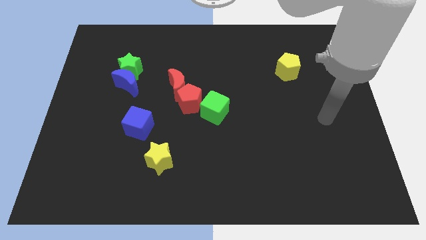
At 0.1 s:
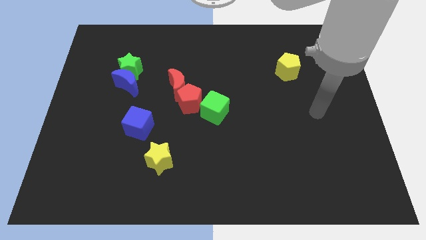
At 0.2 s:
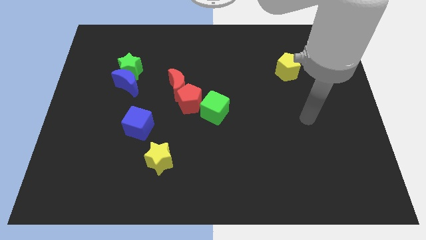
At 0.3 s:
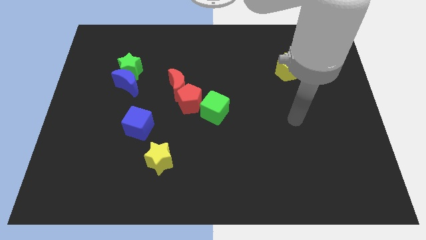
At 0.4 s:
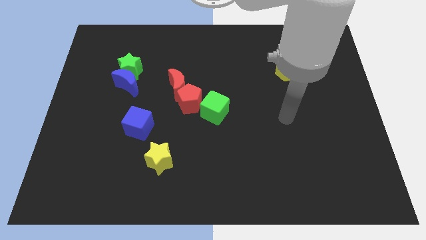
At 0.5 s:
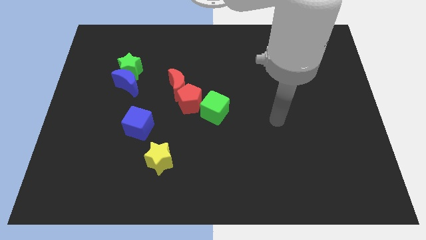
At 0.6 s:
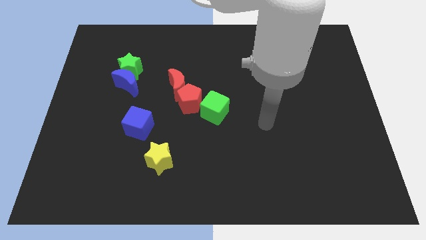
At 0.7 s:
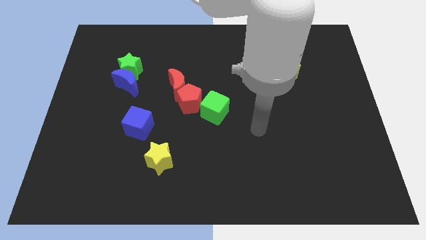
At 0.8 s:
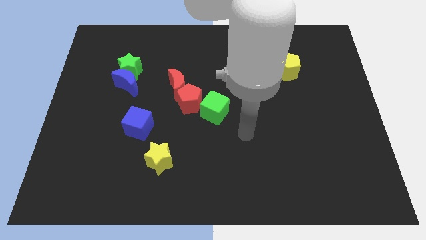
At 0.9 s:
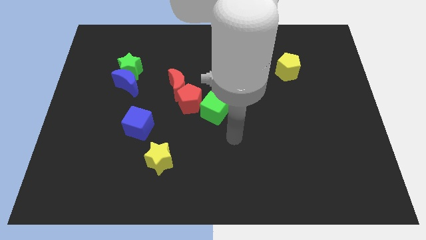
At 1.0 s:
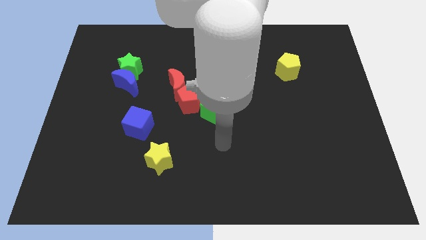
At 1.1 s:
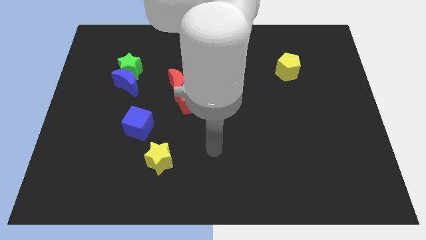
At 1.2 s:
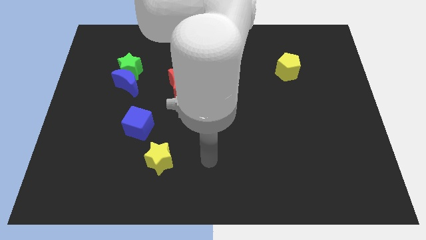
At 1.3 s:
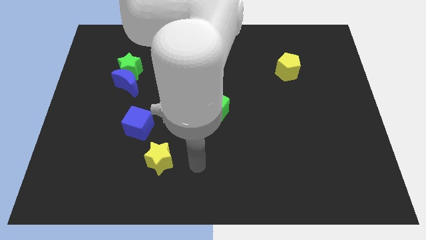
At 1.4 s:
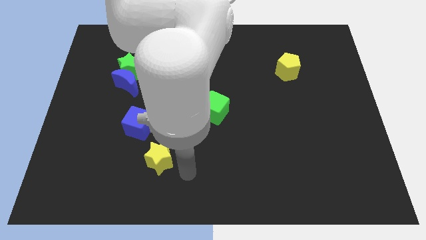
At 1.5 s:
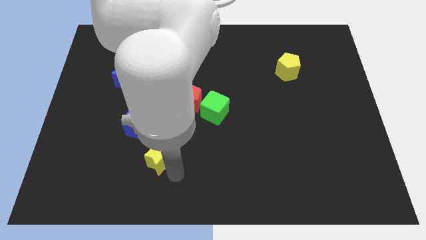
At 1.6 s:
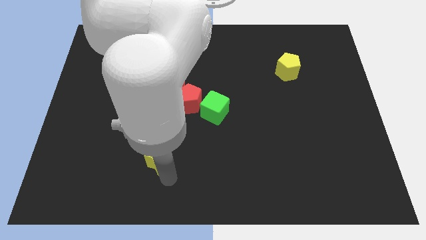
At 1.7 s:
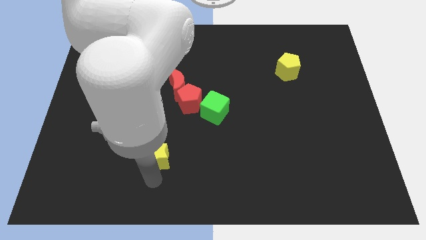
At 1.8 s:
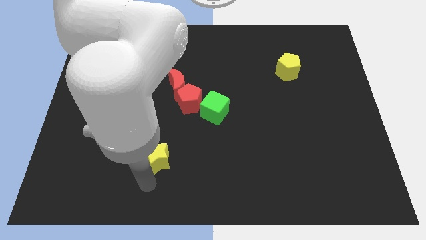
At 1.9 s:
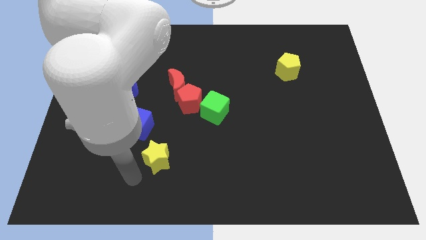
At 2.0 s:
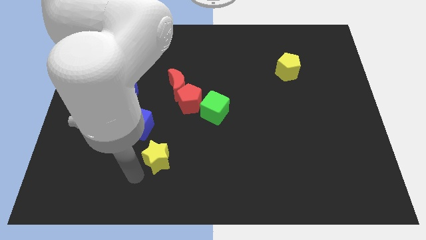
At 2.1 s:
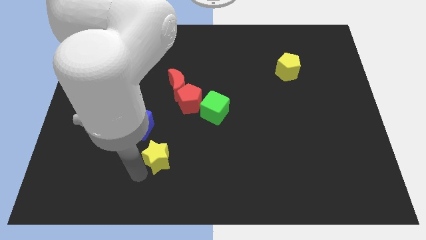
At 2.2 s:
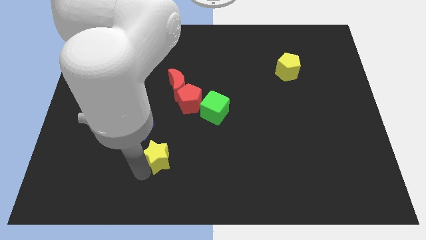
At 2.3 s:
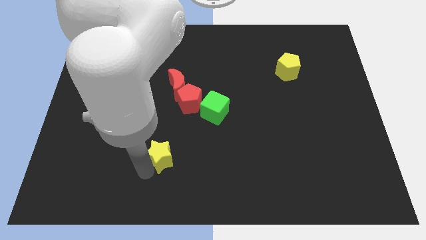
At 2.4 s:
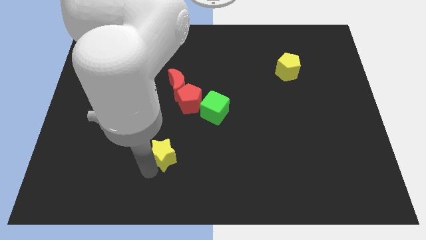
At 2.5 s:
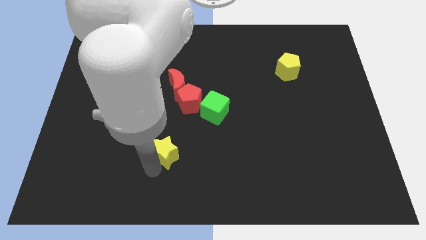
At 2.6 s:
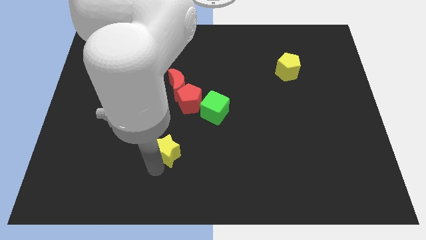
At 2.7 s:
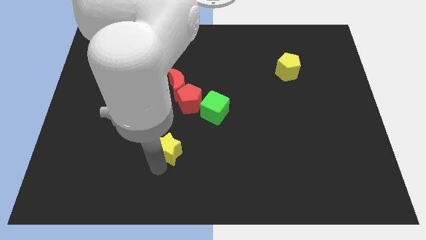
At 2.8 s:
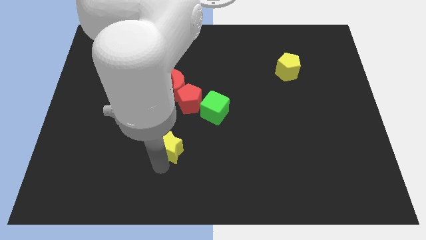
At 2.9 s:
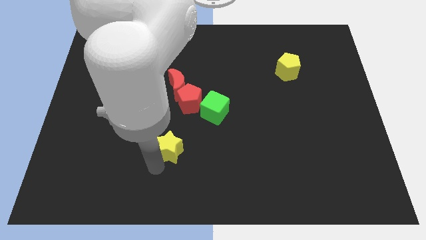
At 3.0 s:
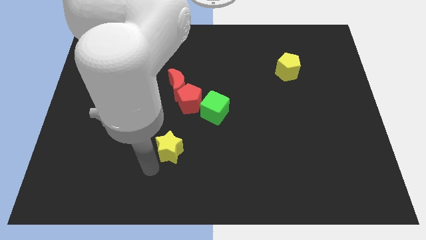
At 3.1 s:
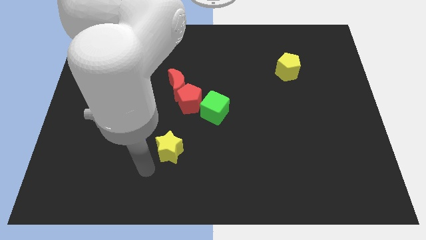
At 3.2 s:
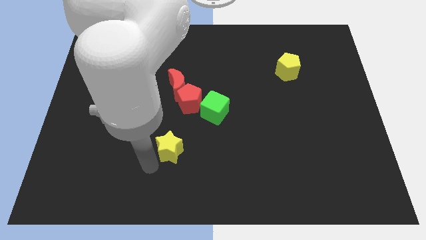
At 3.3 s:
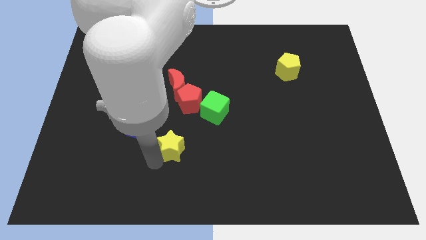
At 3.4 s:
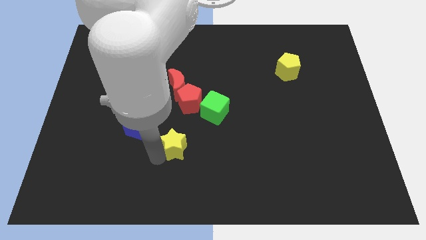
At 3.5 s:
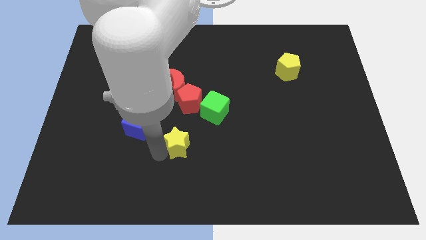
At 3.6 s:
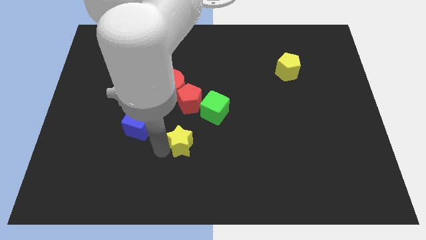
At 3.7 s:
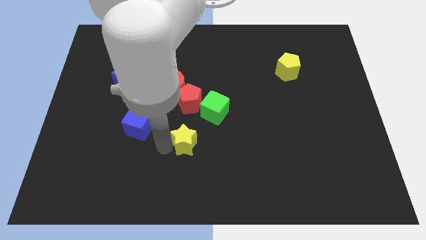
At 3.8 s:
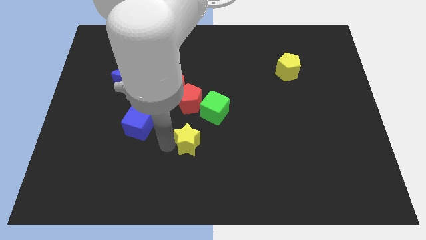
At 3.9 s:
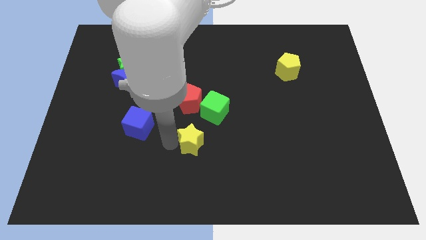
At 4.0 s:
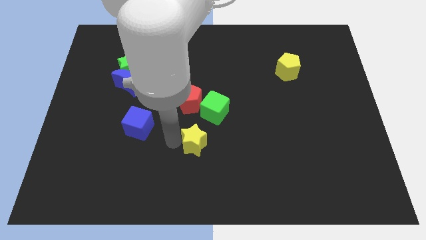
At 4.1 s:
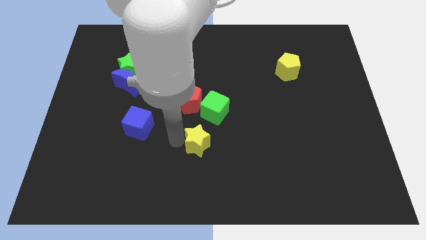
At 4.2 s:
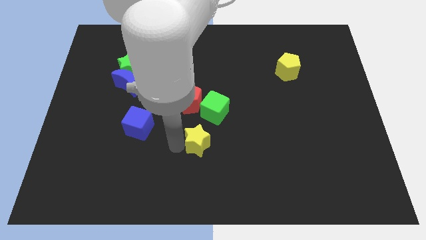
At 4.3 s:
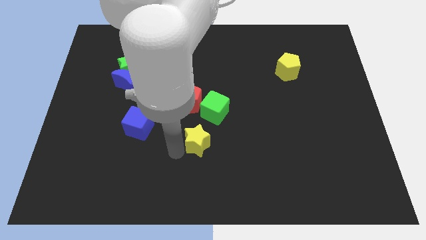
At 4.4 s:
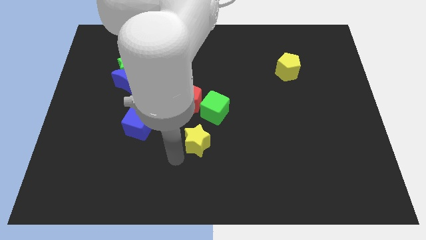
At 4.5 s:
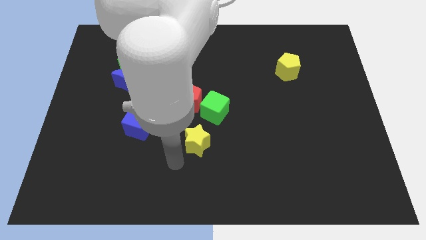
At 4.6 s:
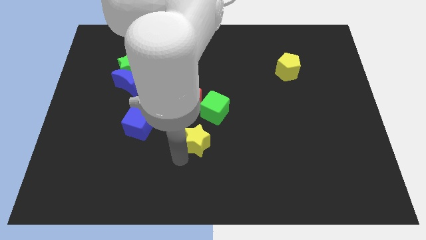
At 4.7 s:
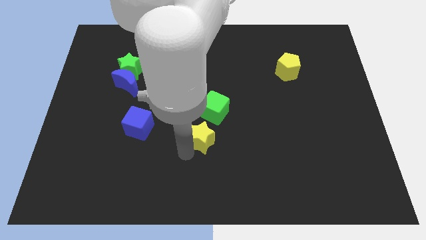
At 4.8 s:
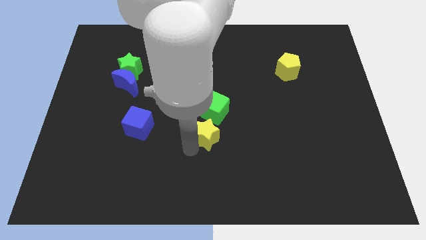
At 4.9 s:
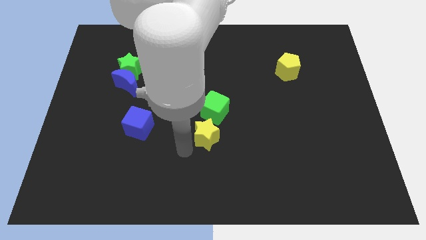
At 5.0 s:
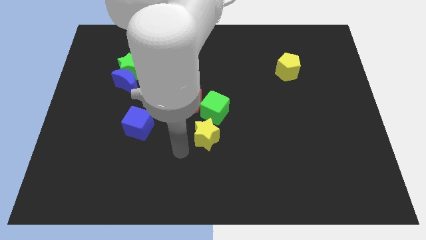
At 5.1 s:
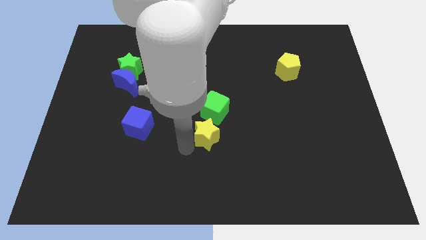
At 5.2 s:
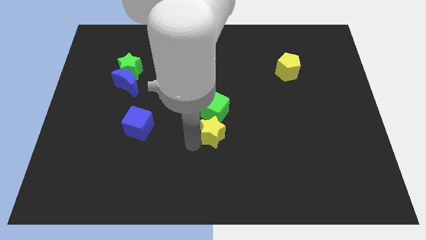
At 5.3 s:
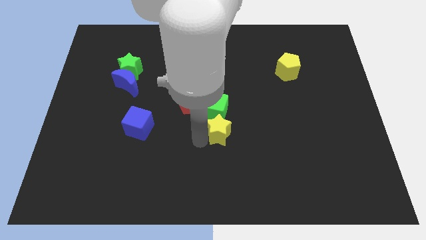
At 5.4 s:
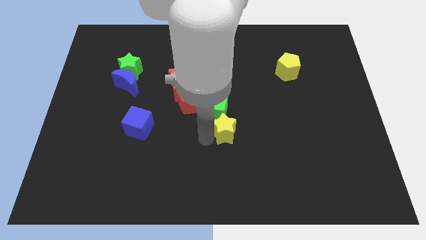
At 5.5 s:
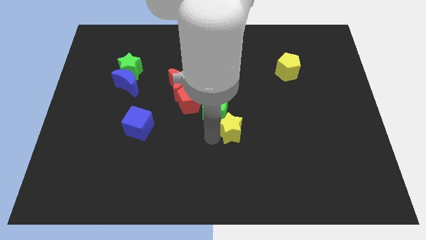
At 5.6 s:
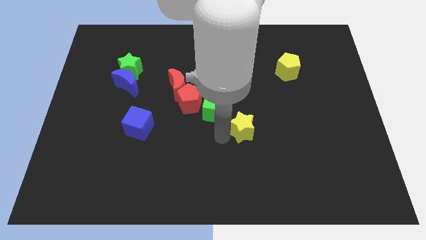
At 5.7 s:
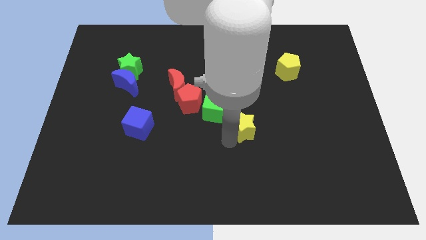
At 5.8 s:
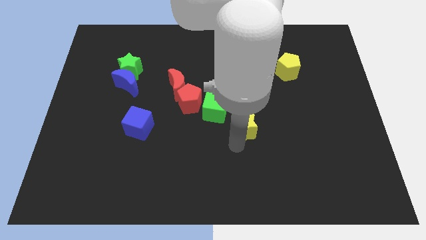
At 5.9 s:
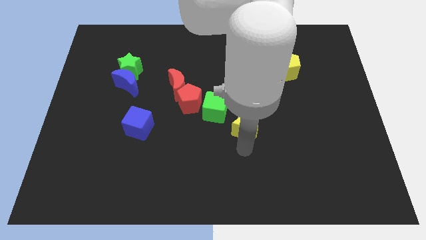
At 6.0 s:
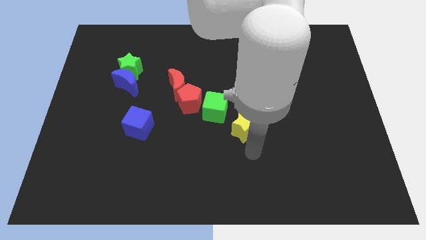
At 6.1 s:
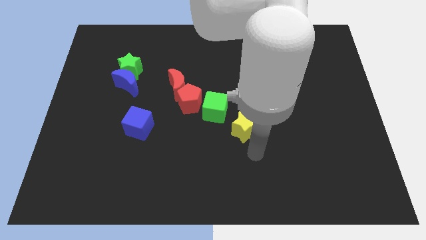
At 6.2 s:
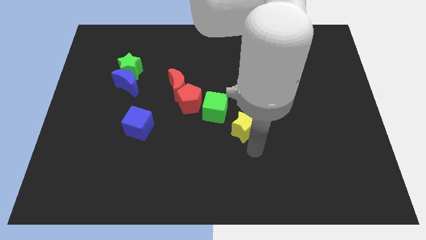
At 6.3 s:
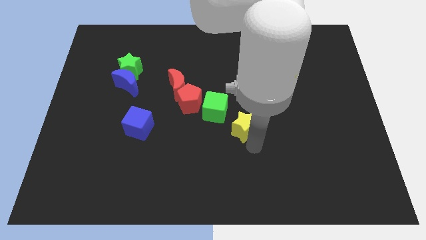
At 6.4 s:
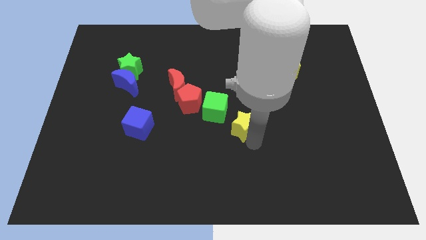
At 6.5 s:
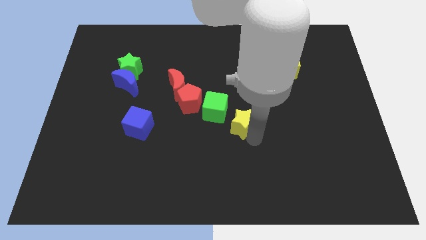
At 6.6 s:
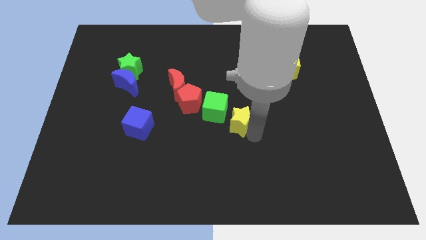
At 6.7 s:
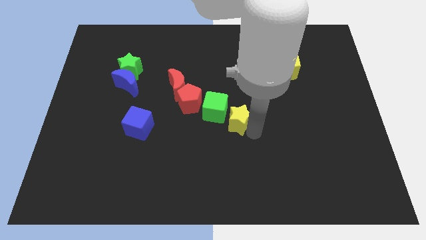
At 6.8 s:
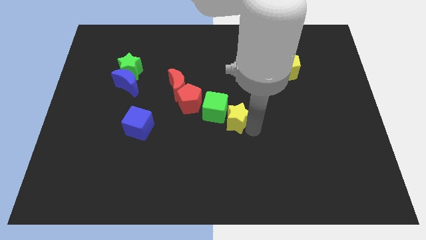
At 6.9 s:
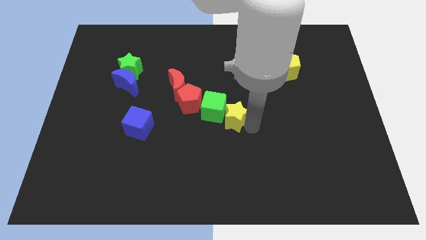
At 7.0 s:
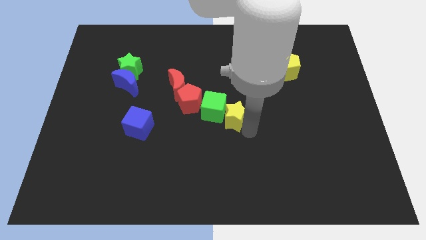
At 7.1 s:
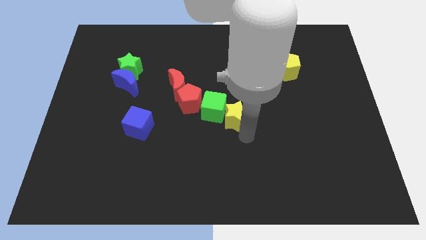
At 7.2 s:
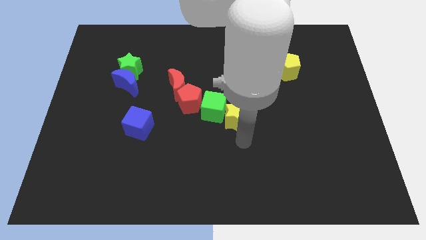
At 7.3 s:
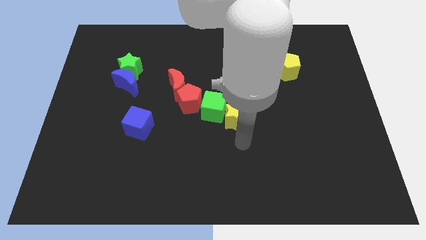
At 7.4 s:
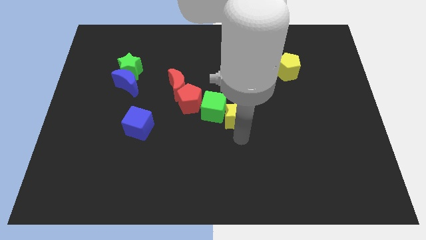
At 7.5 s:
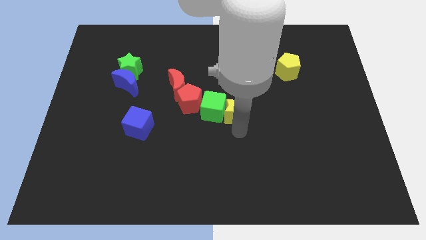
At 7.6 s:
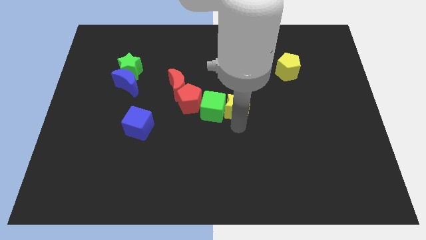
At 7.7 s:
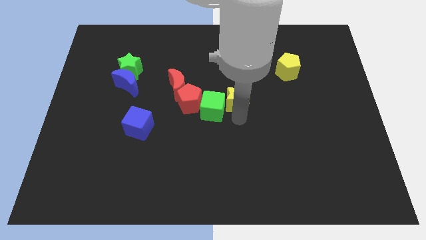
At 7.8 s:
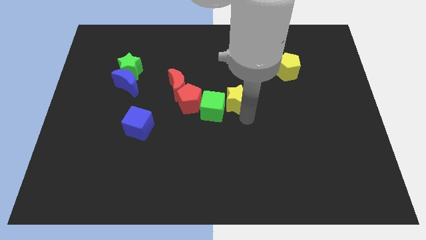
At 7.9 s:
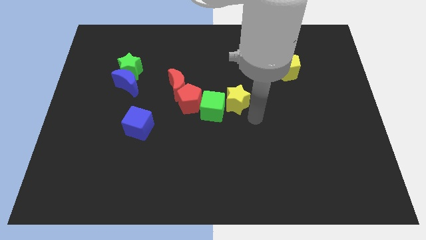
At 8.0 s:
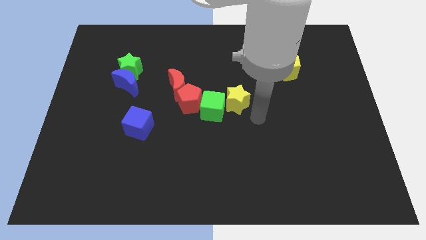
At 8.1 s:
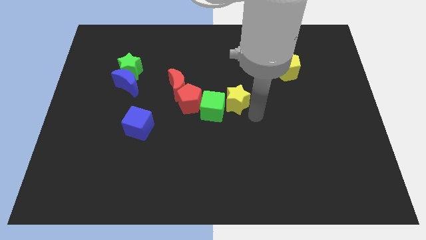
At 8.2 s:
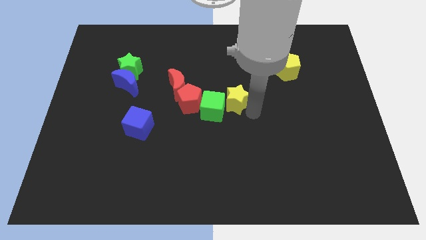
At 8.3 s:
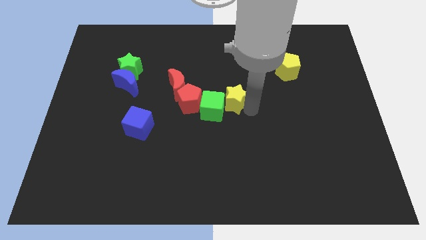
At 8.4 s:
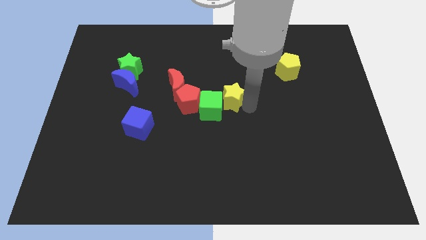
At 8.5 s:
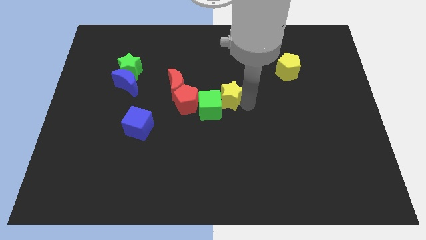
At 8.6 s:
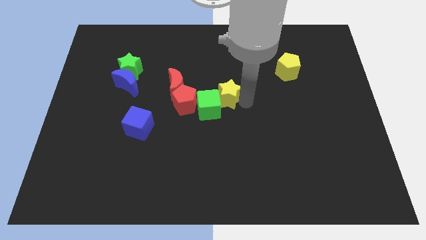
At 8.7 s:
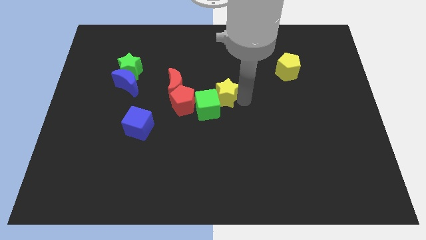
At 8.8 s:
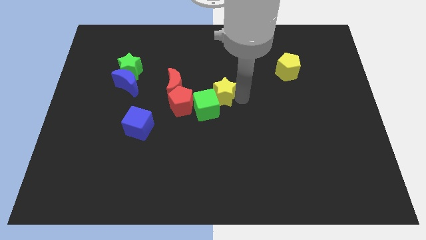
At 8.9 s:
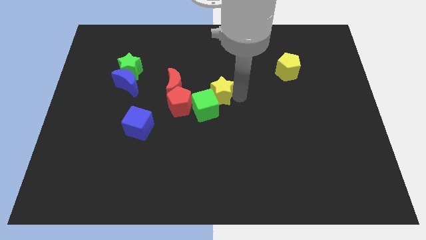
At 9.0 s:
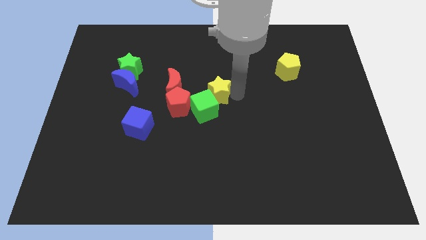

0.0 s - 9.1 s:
move the yellow star to the top right side of the red pentagon
